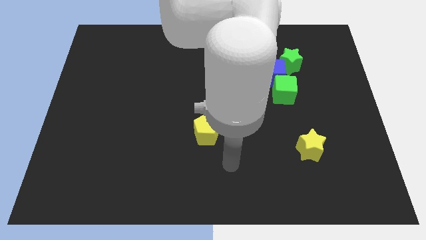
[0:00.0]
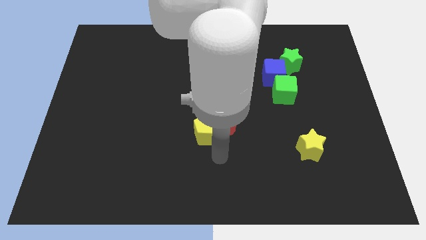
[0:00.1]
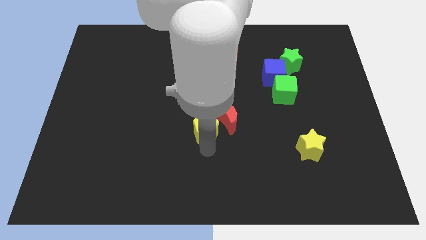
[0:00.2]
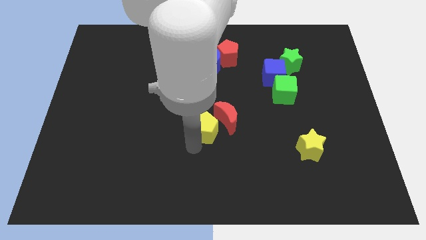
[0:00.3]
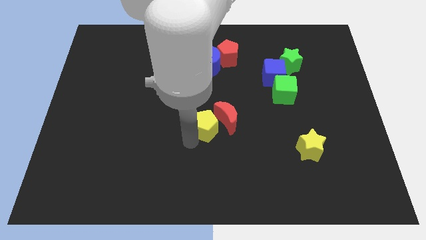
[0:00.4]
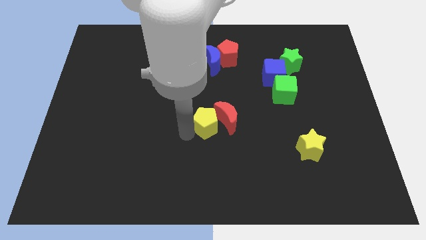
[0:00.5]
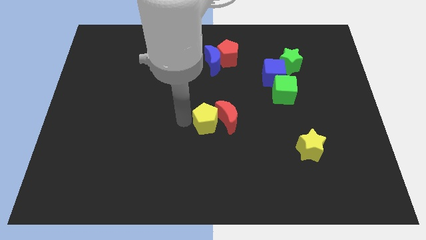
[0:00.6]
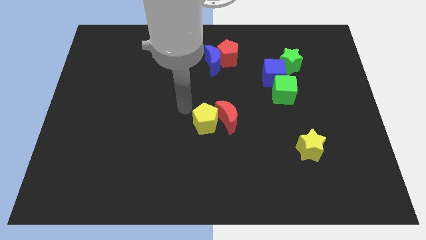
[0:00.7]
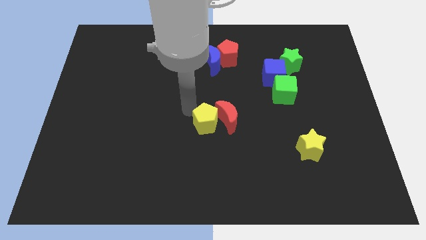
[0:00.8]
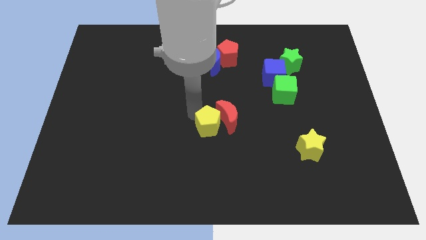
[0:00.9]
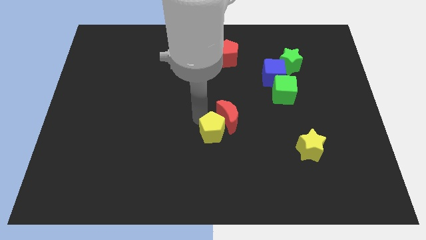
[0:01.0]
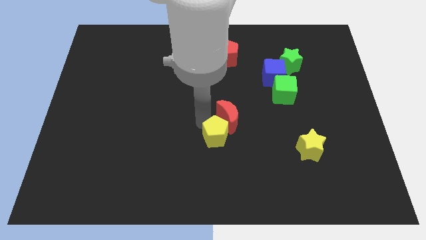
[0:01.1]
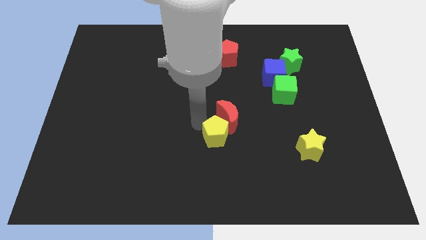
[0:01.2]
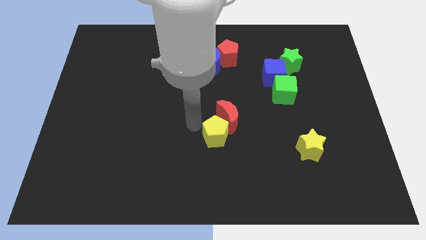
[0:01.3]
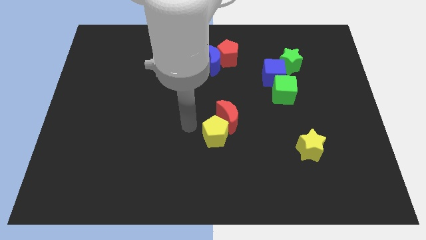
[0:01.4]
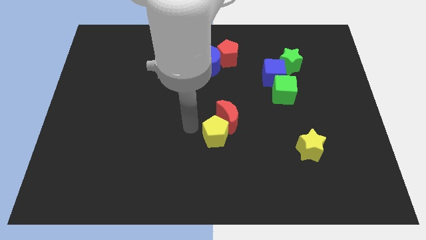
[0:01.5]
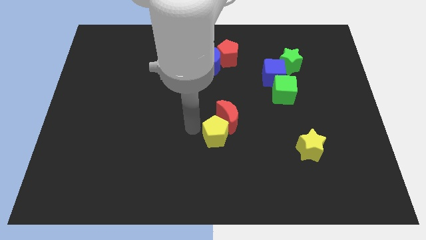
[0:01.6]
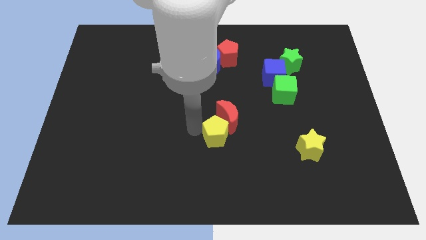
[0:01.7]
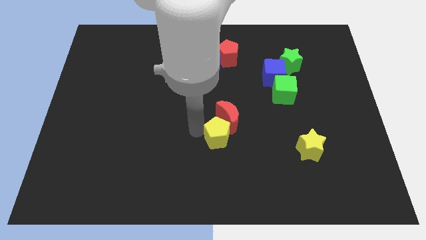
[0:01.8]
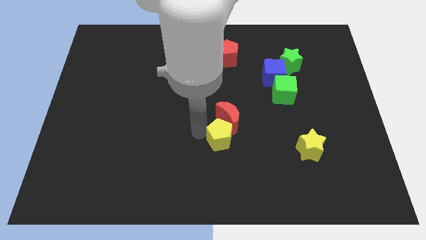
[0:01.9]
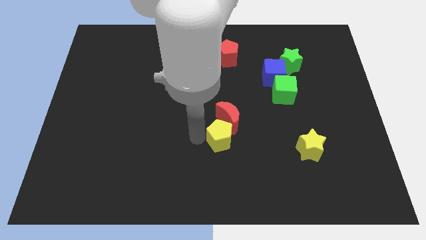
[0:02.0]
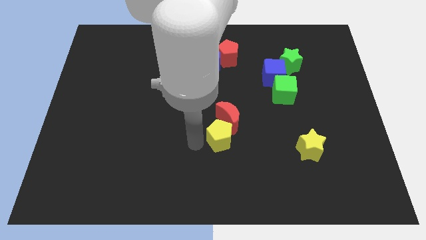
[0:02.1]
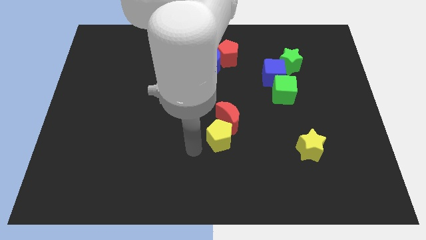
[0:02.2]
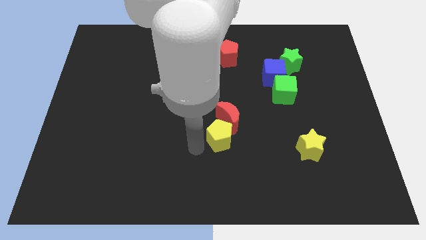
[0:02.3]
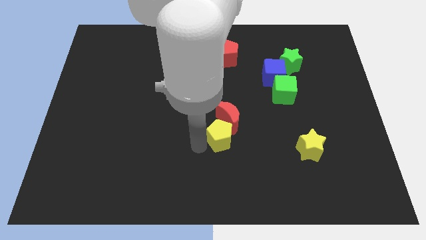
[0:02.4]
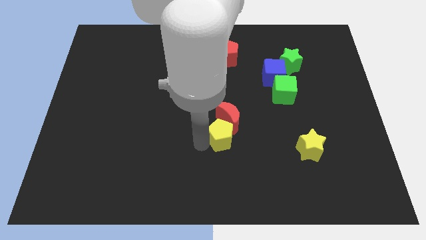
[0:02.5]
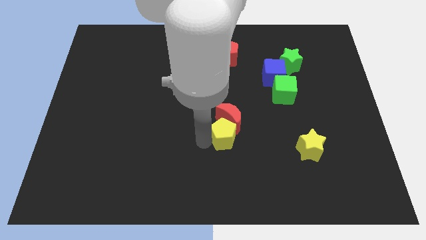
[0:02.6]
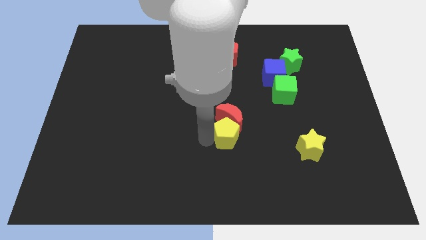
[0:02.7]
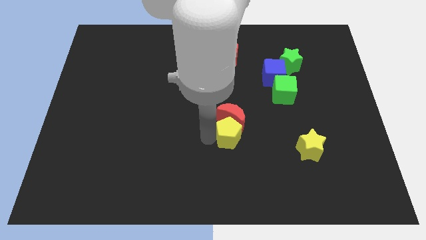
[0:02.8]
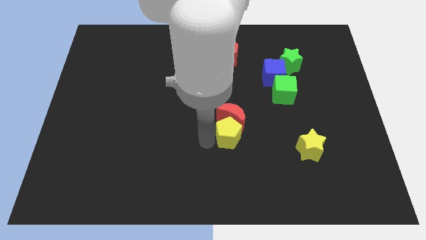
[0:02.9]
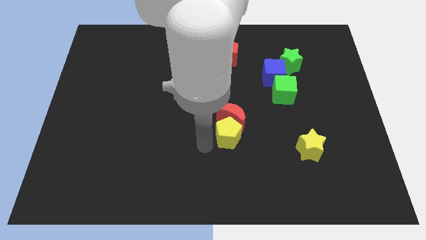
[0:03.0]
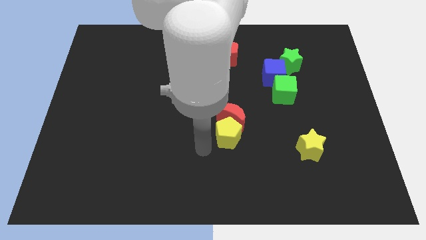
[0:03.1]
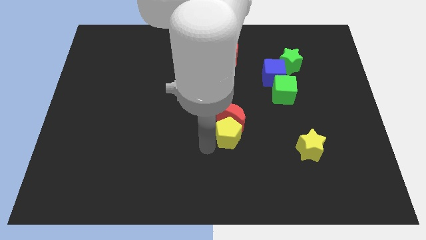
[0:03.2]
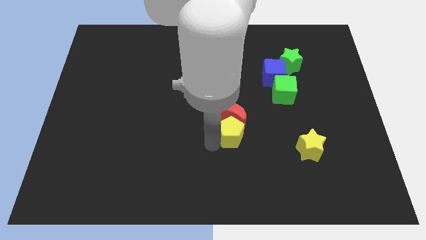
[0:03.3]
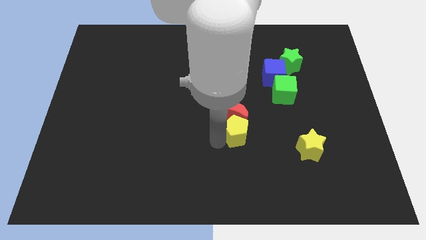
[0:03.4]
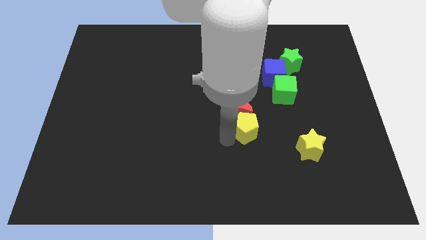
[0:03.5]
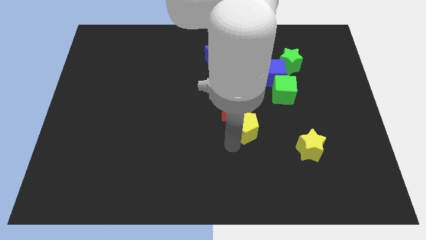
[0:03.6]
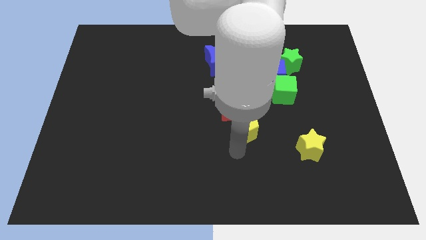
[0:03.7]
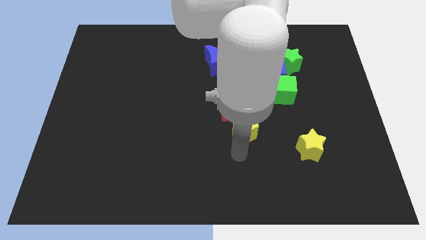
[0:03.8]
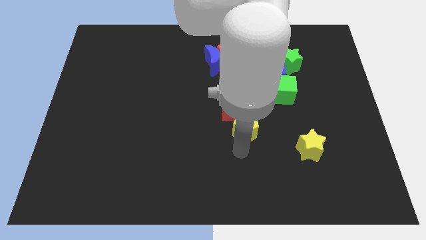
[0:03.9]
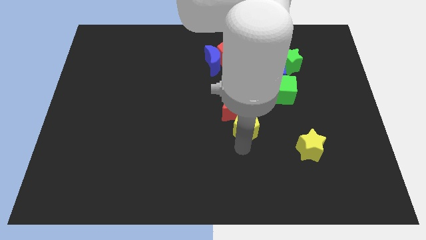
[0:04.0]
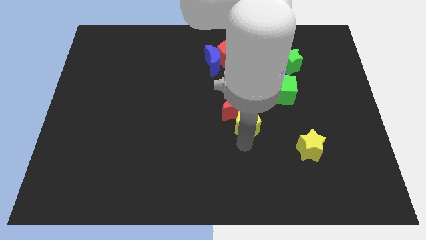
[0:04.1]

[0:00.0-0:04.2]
slide the yellow pentagon upwards and then right slightly

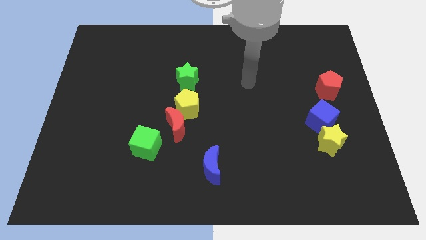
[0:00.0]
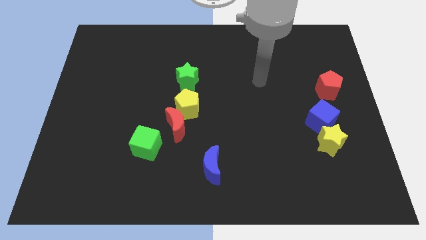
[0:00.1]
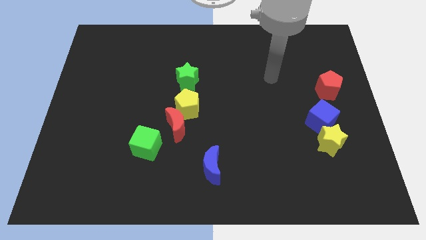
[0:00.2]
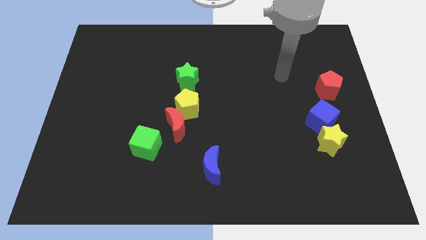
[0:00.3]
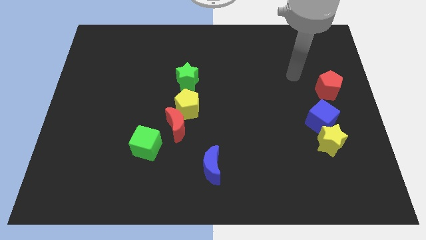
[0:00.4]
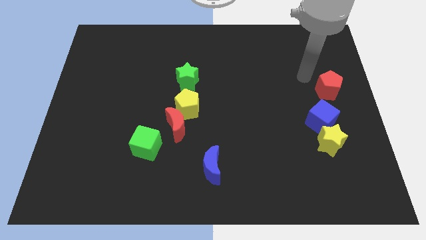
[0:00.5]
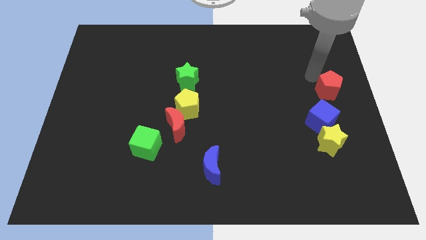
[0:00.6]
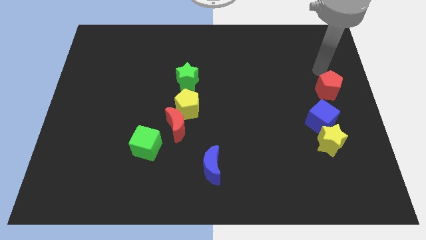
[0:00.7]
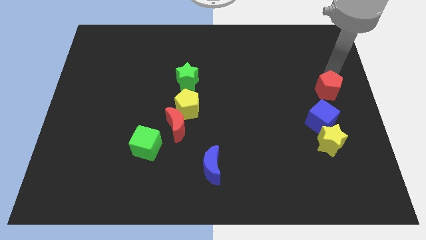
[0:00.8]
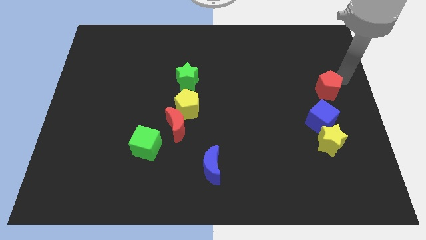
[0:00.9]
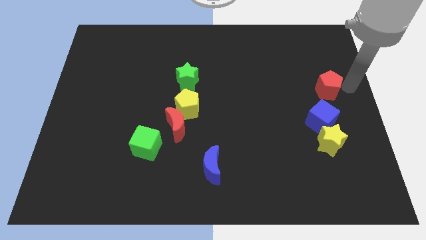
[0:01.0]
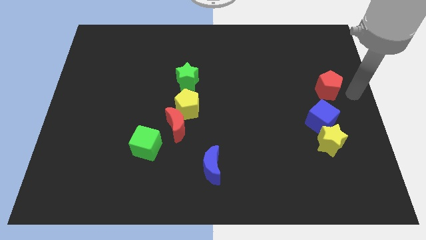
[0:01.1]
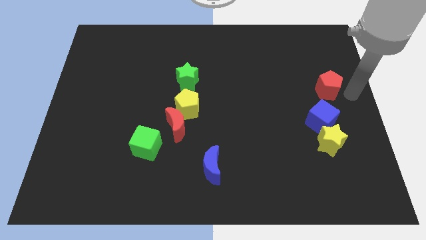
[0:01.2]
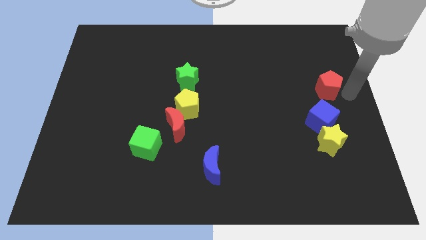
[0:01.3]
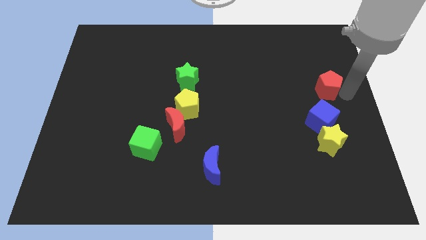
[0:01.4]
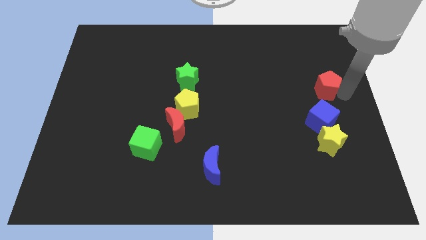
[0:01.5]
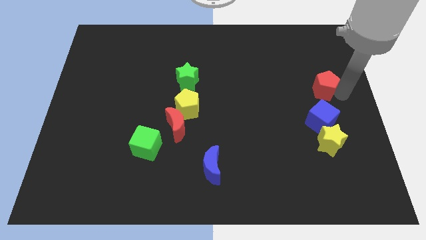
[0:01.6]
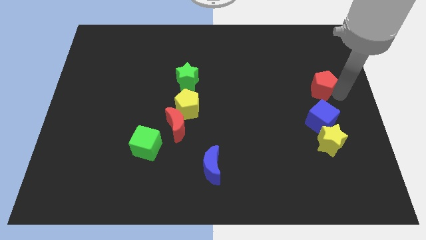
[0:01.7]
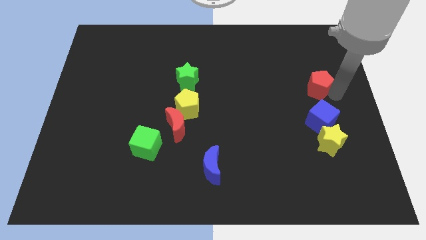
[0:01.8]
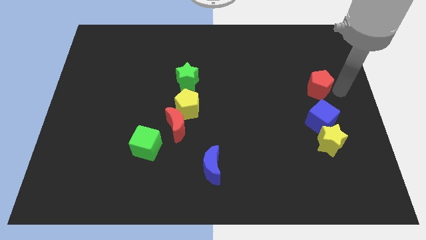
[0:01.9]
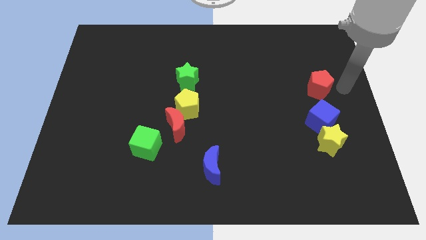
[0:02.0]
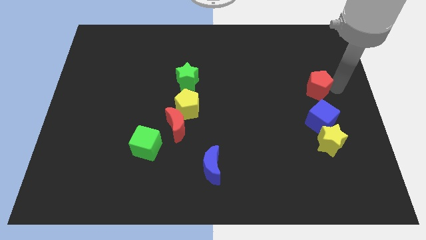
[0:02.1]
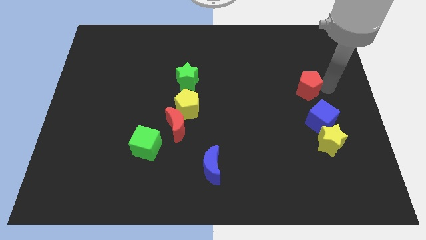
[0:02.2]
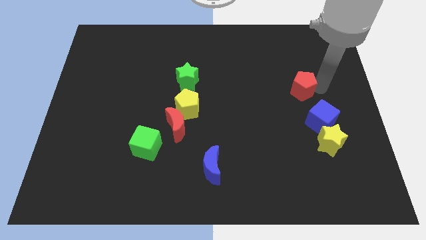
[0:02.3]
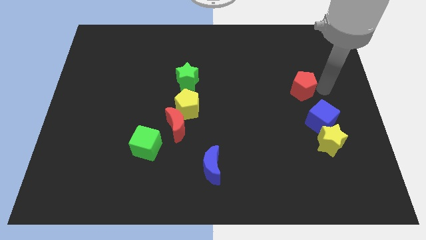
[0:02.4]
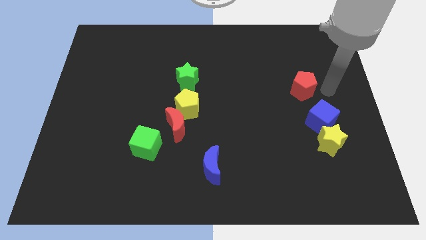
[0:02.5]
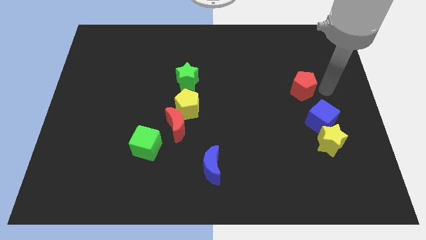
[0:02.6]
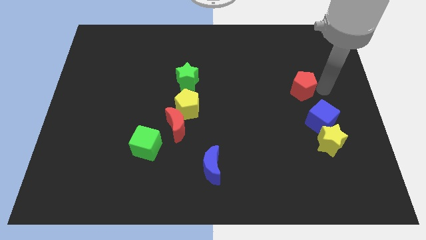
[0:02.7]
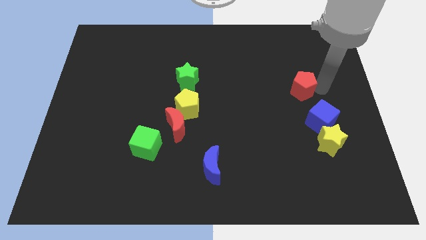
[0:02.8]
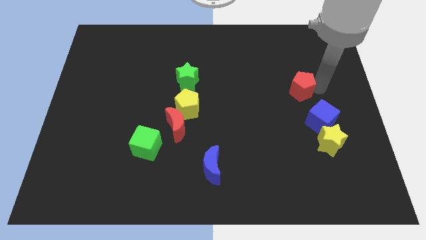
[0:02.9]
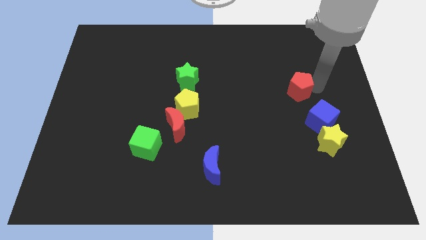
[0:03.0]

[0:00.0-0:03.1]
slightly push the red pentagon to the left

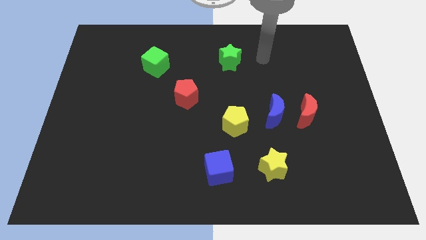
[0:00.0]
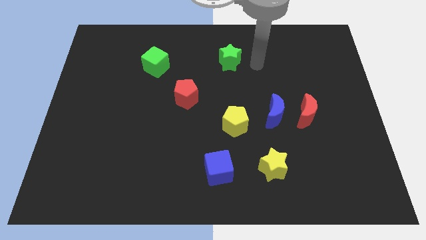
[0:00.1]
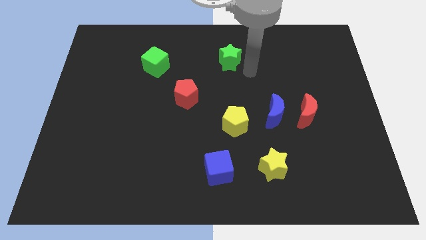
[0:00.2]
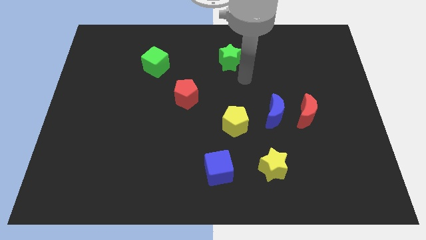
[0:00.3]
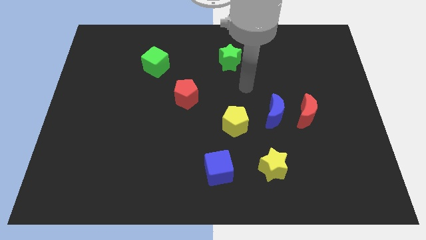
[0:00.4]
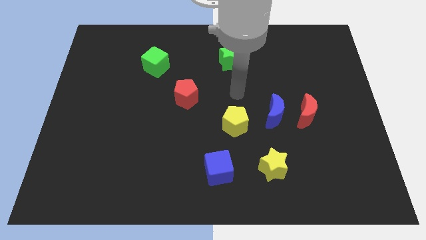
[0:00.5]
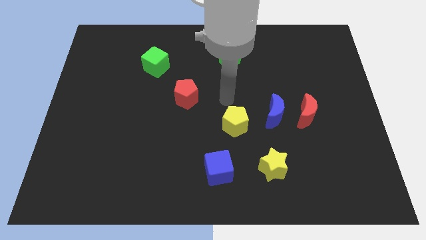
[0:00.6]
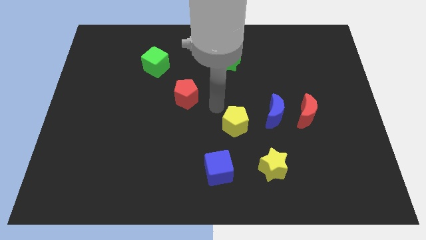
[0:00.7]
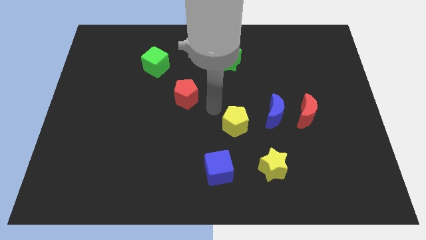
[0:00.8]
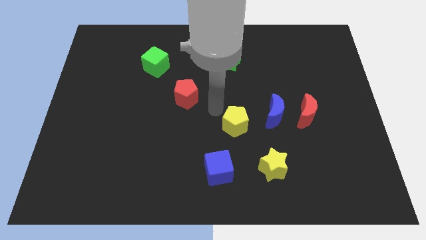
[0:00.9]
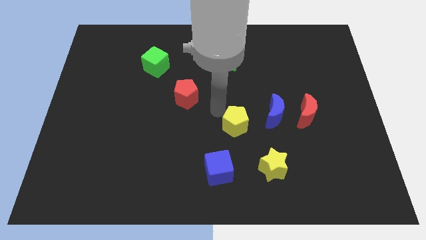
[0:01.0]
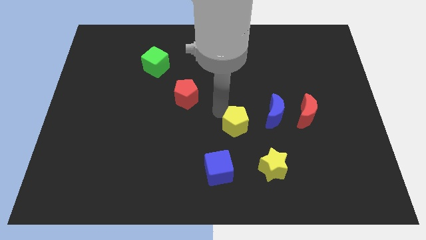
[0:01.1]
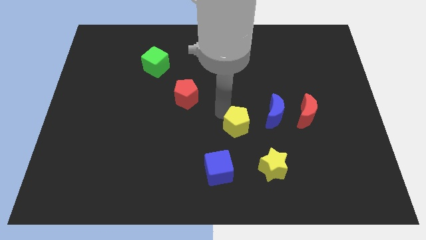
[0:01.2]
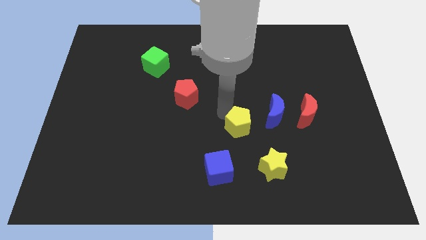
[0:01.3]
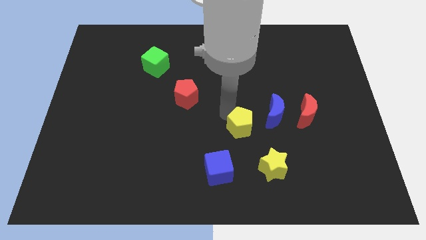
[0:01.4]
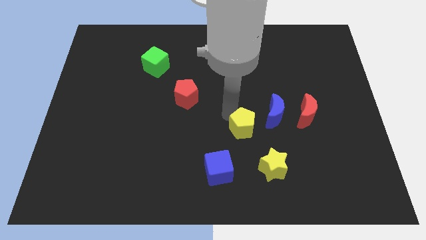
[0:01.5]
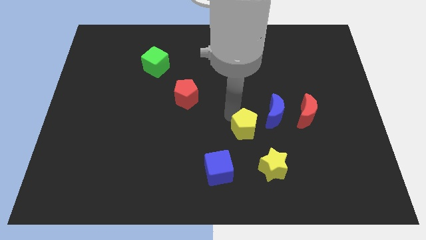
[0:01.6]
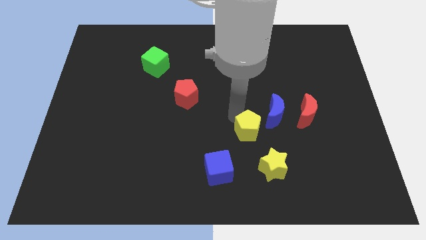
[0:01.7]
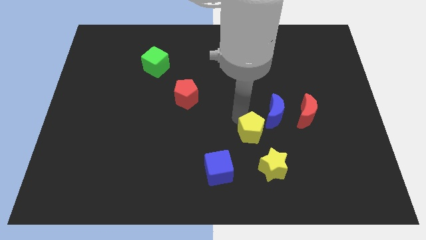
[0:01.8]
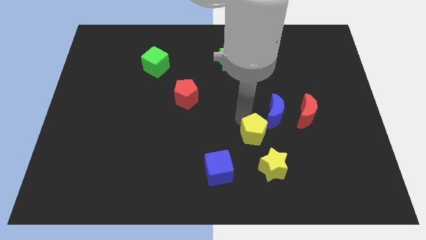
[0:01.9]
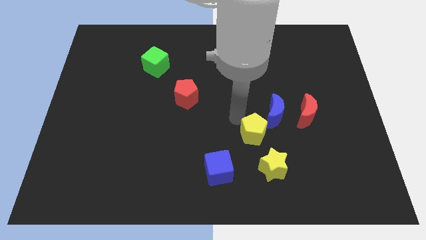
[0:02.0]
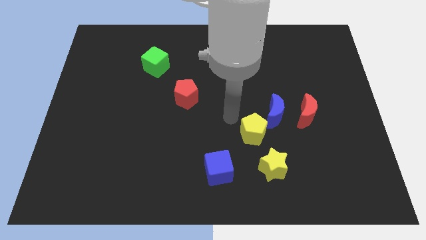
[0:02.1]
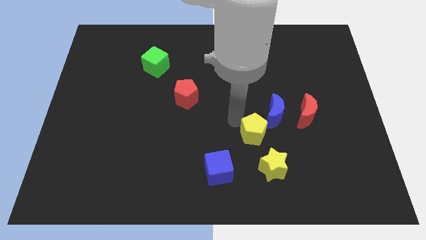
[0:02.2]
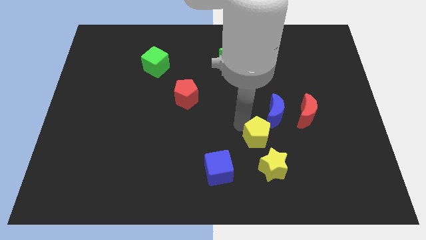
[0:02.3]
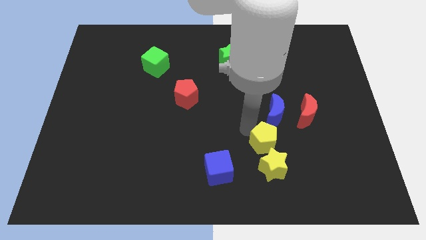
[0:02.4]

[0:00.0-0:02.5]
push the yellow pentagon somewhat diagonally down and to the right
